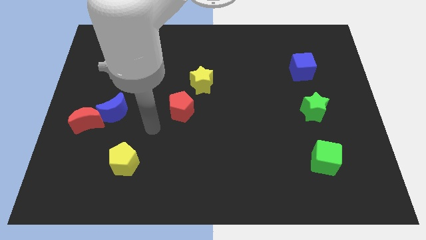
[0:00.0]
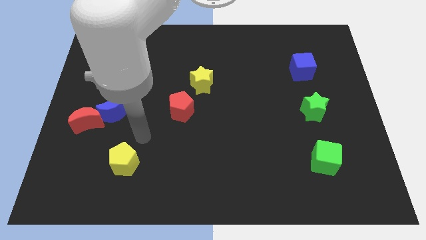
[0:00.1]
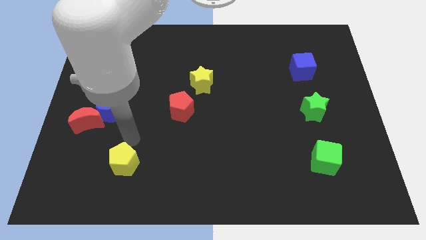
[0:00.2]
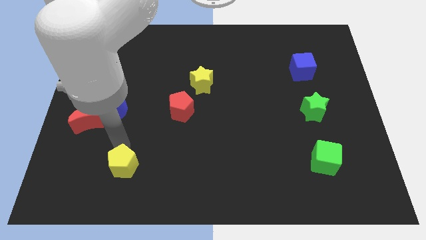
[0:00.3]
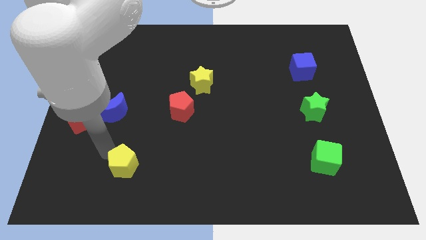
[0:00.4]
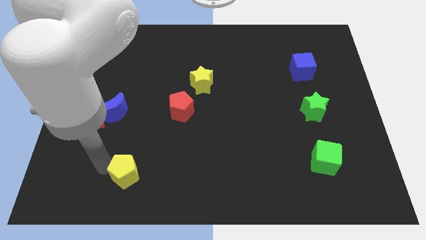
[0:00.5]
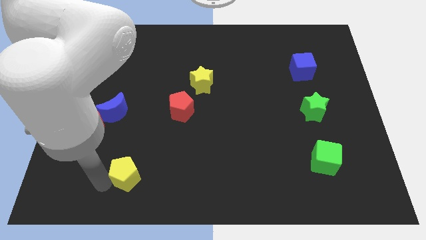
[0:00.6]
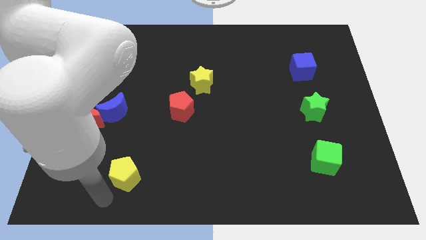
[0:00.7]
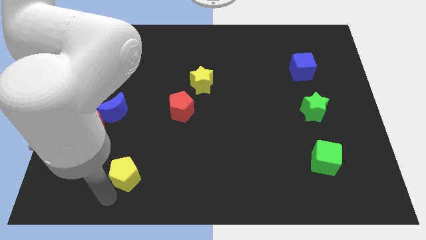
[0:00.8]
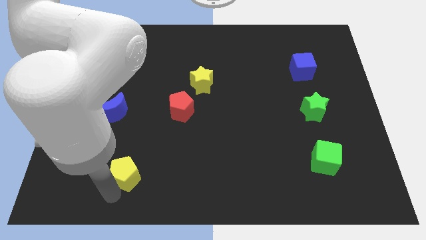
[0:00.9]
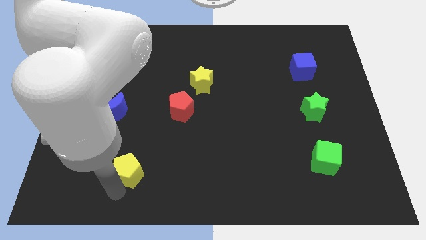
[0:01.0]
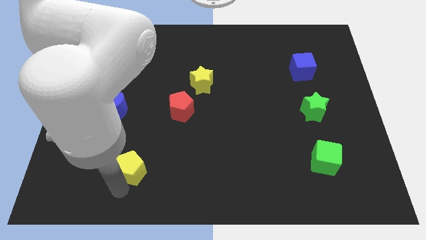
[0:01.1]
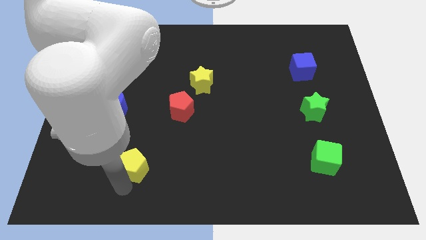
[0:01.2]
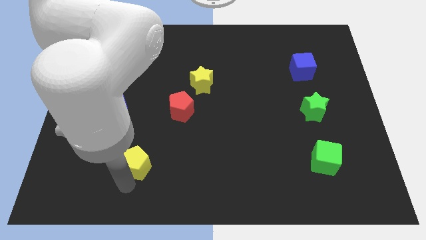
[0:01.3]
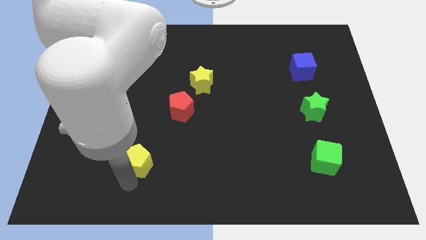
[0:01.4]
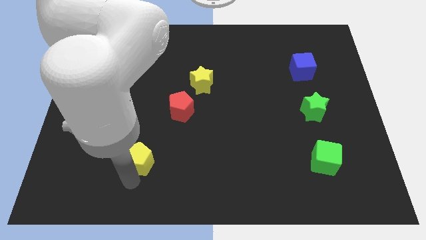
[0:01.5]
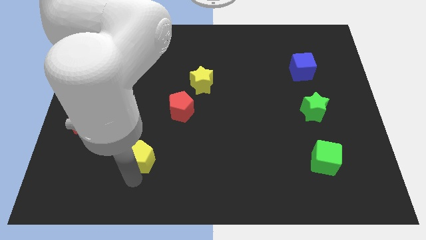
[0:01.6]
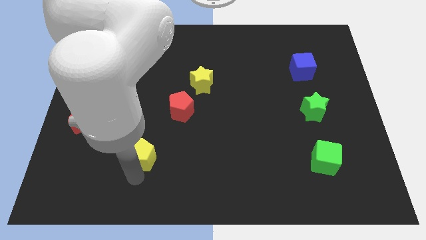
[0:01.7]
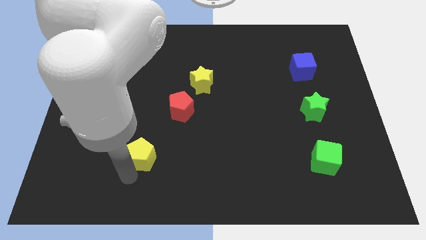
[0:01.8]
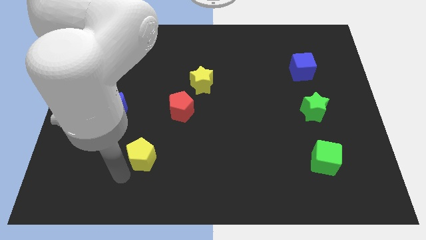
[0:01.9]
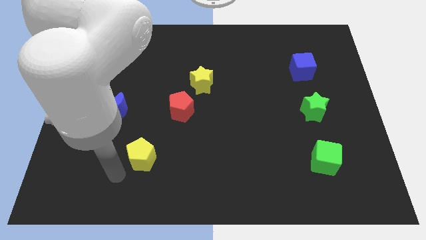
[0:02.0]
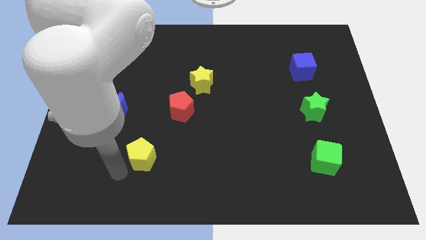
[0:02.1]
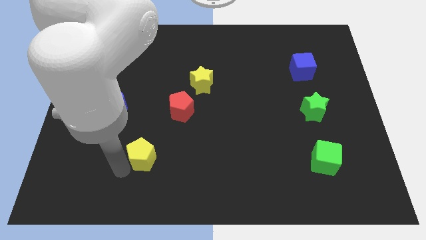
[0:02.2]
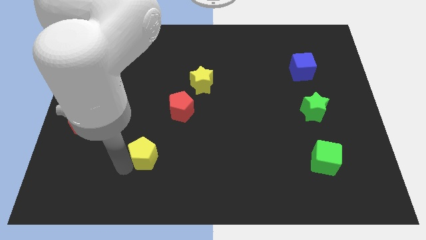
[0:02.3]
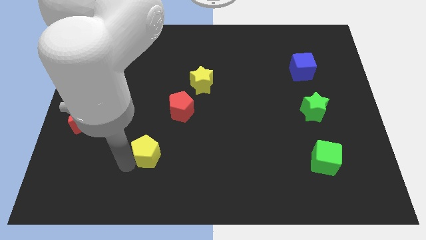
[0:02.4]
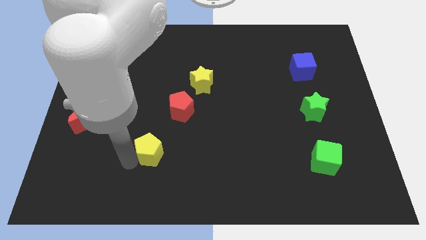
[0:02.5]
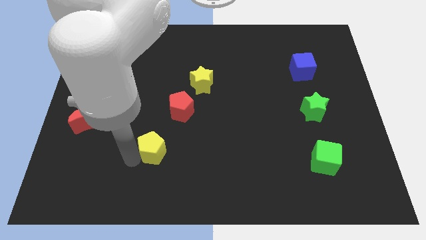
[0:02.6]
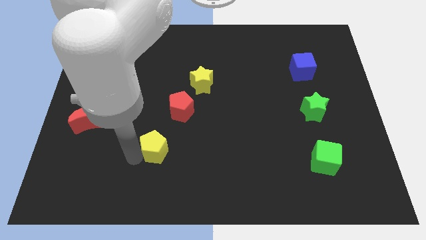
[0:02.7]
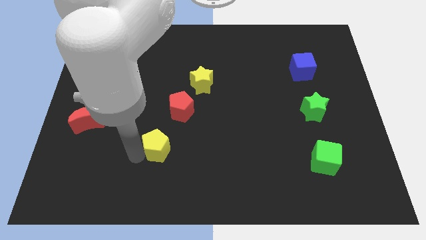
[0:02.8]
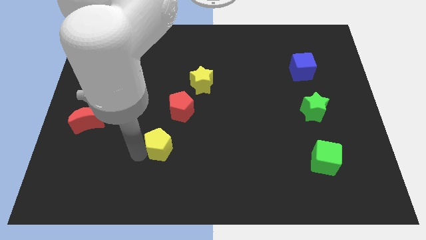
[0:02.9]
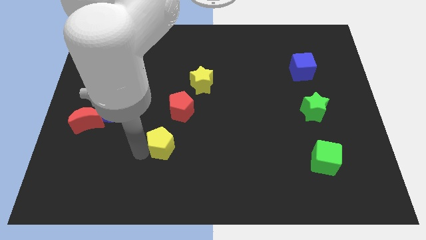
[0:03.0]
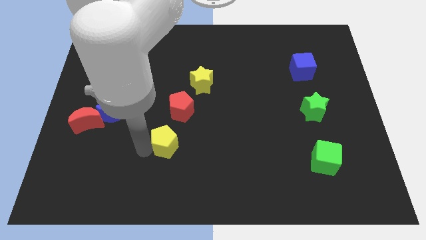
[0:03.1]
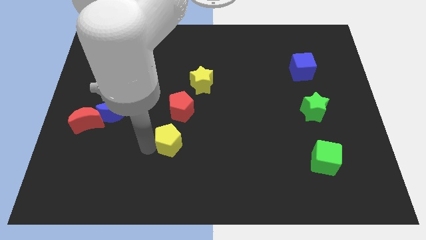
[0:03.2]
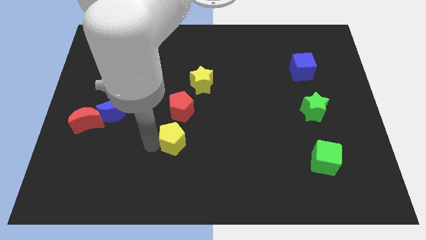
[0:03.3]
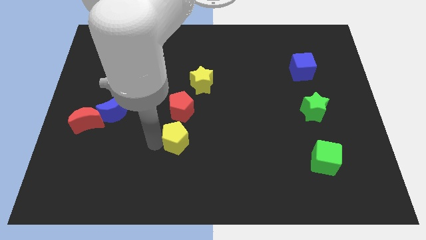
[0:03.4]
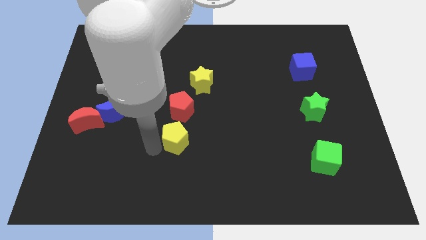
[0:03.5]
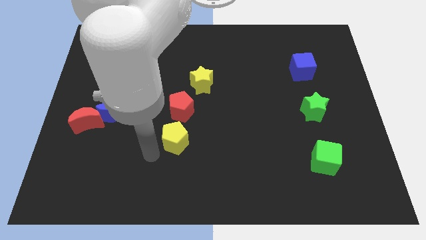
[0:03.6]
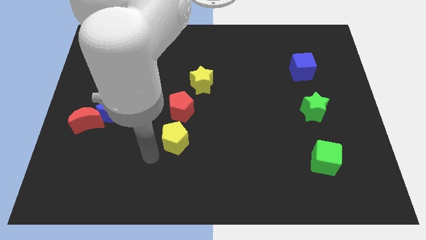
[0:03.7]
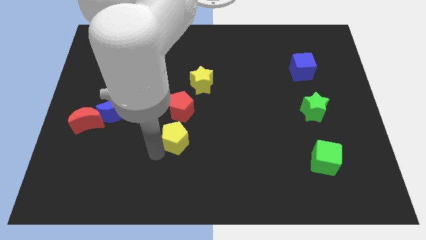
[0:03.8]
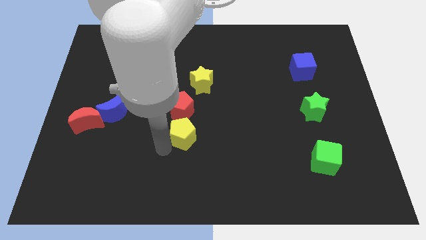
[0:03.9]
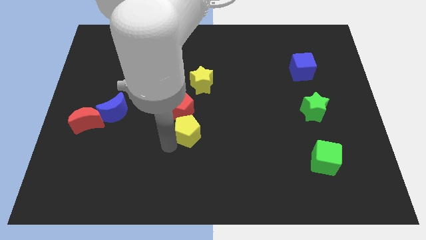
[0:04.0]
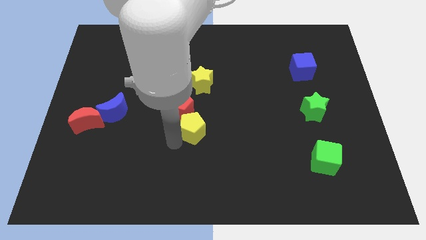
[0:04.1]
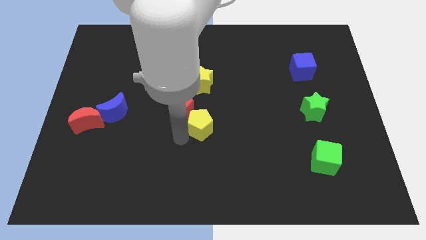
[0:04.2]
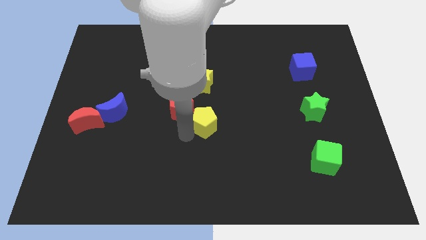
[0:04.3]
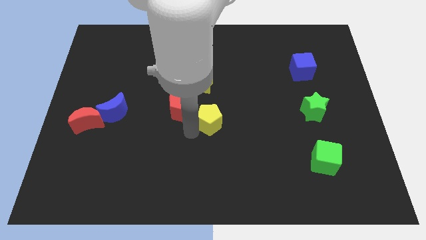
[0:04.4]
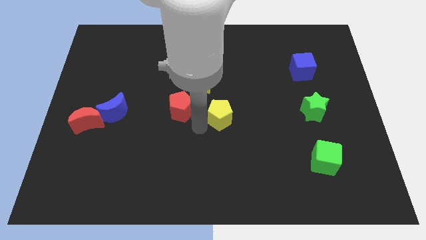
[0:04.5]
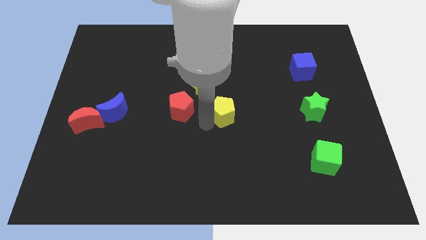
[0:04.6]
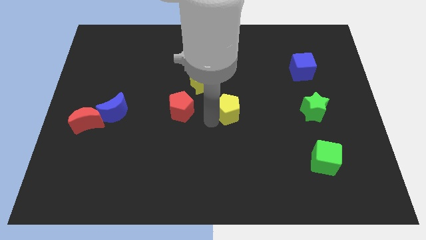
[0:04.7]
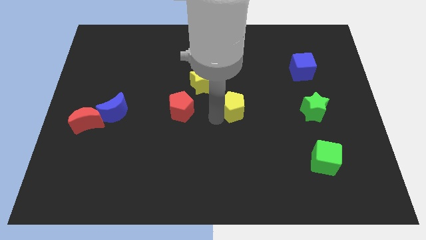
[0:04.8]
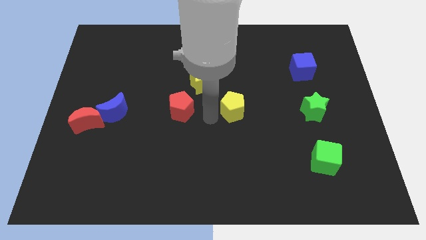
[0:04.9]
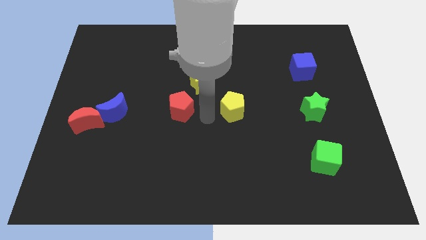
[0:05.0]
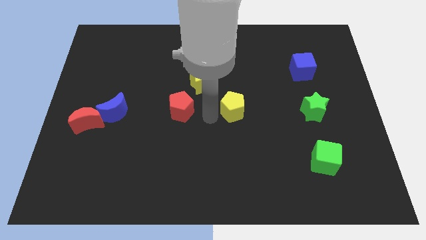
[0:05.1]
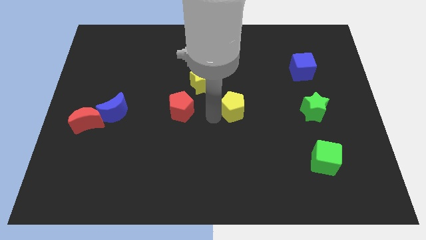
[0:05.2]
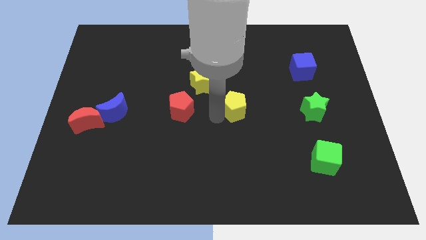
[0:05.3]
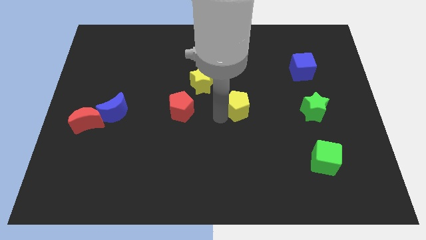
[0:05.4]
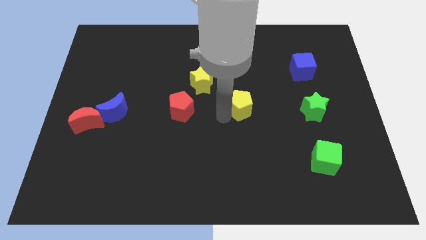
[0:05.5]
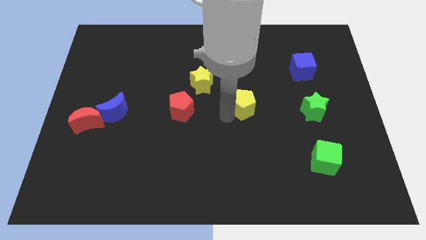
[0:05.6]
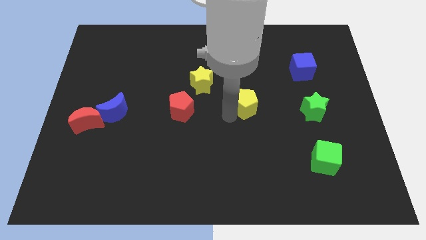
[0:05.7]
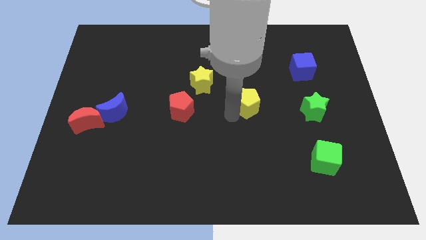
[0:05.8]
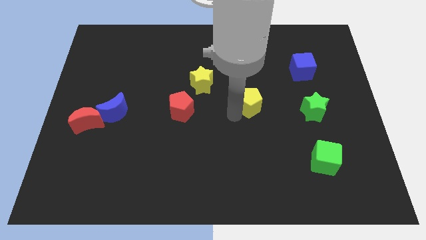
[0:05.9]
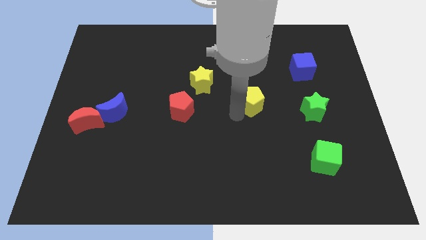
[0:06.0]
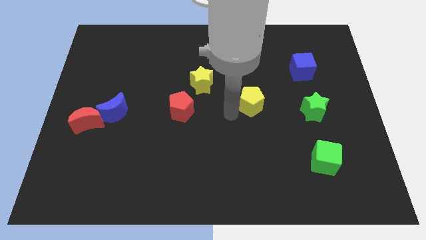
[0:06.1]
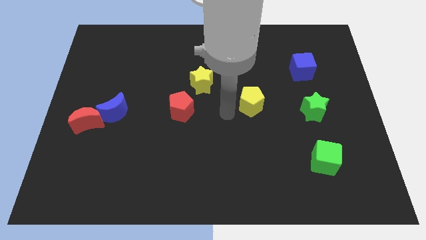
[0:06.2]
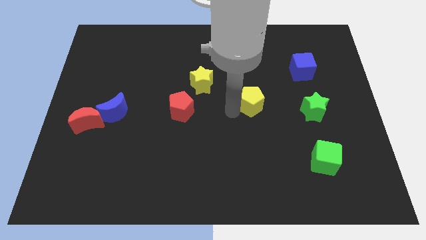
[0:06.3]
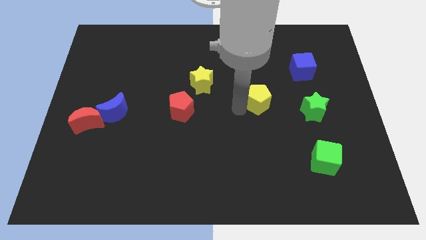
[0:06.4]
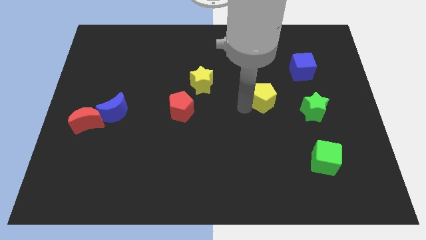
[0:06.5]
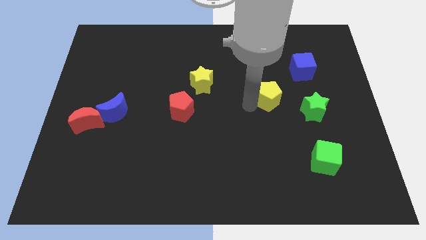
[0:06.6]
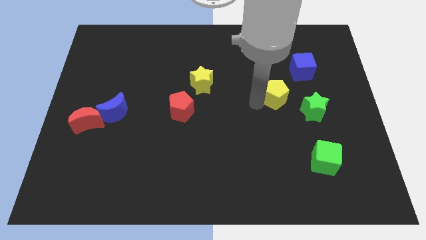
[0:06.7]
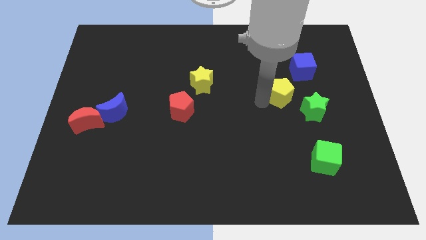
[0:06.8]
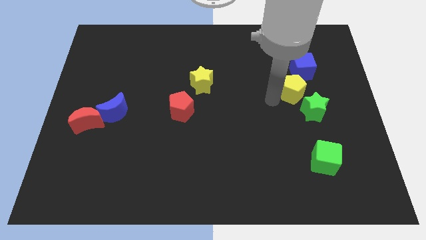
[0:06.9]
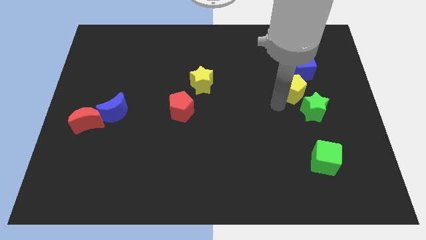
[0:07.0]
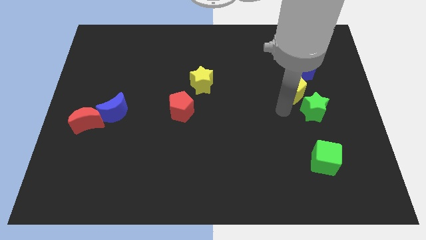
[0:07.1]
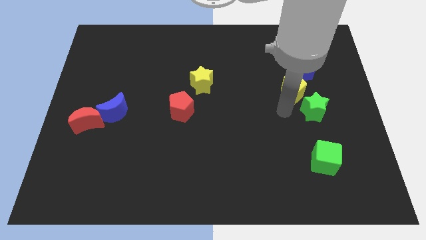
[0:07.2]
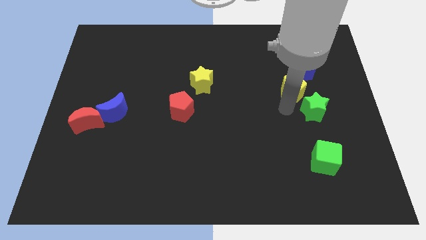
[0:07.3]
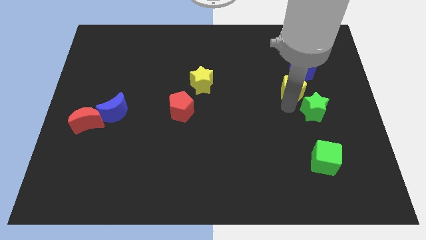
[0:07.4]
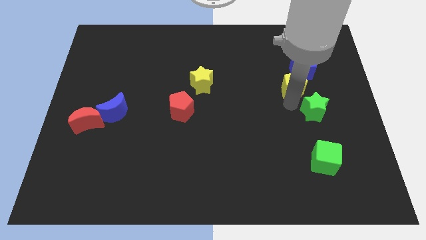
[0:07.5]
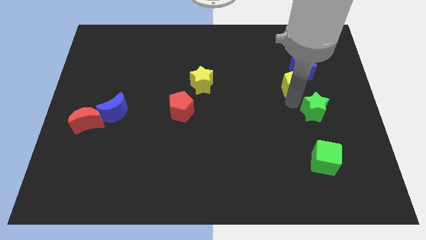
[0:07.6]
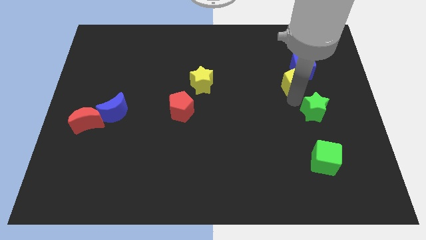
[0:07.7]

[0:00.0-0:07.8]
put the yellow pentagon to the blue cube
